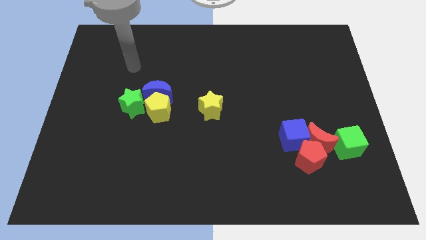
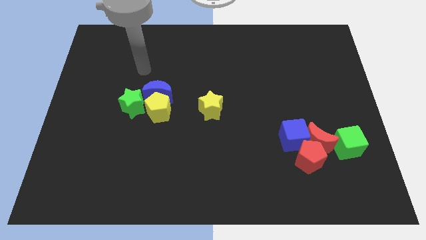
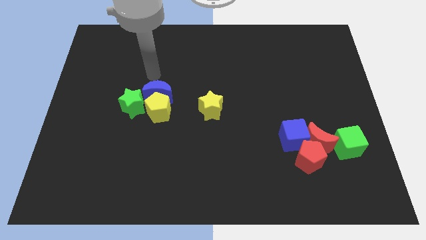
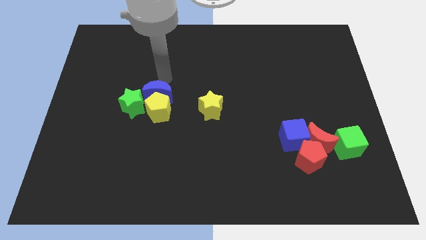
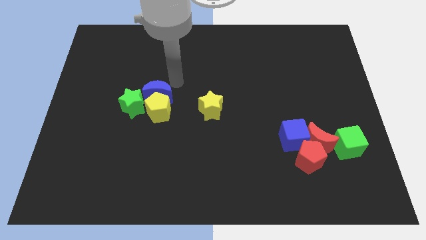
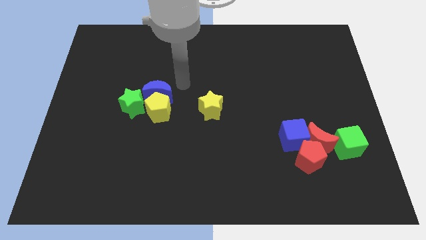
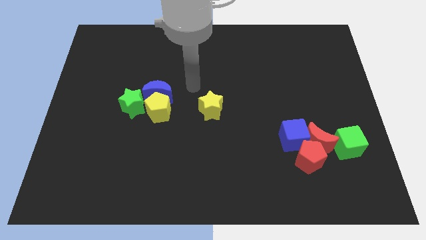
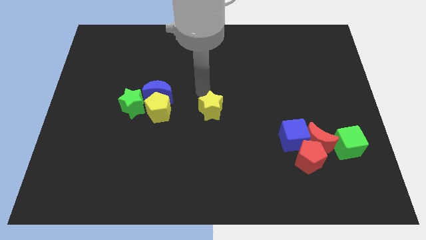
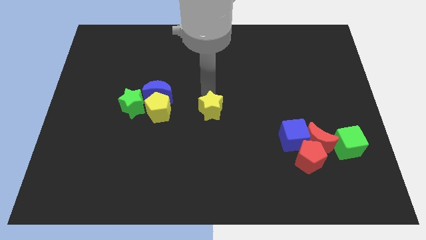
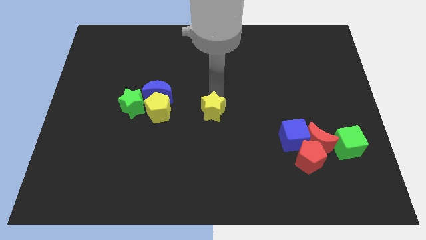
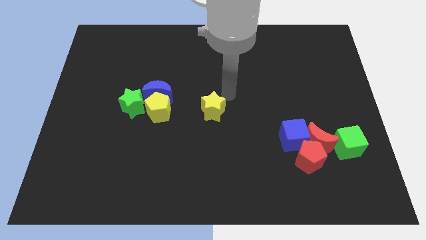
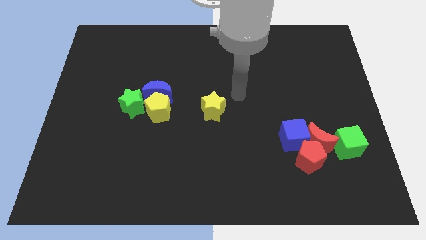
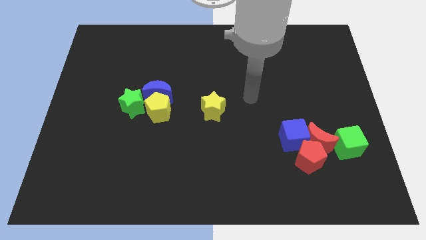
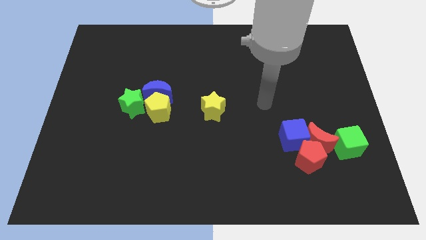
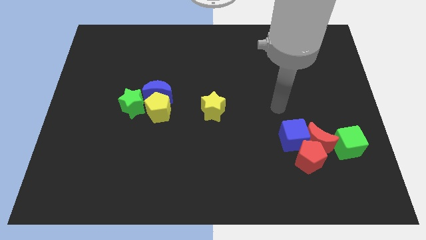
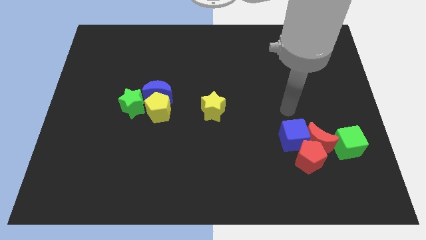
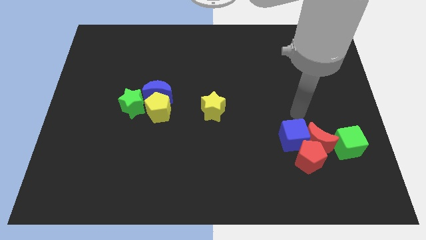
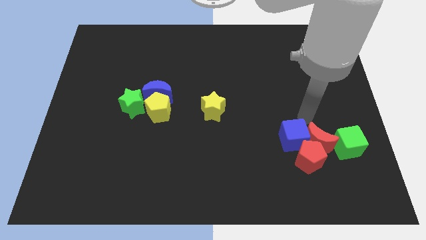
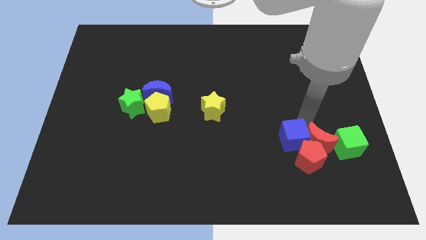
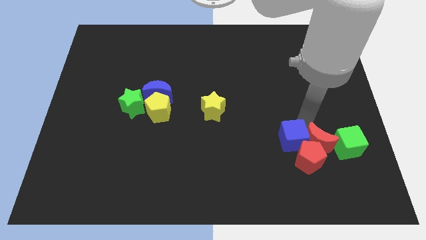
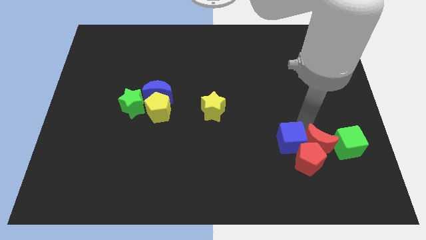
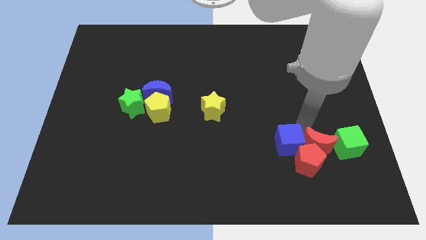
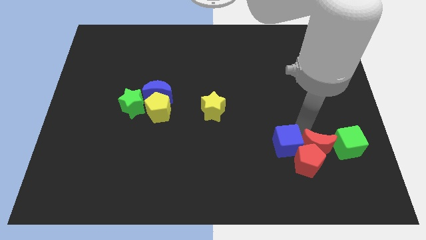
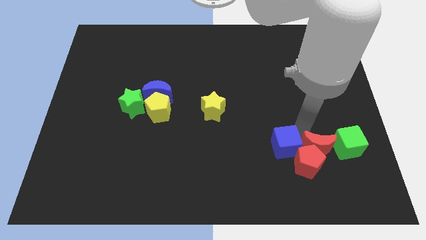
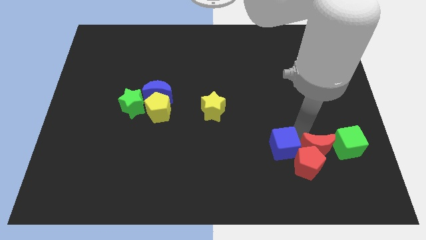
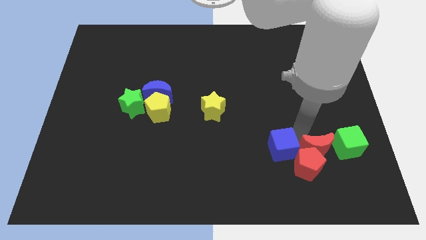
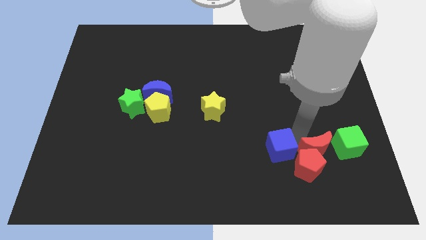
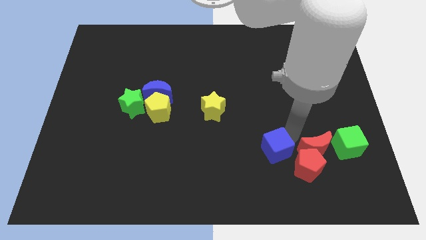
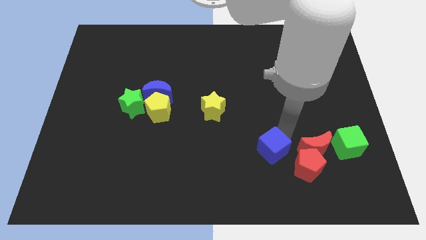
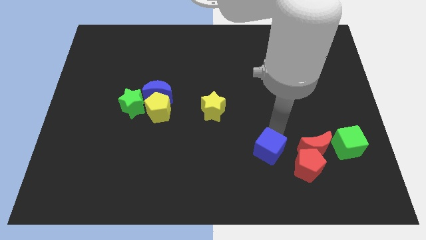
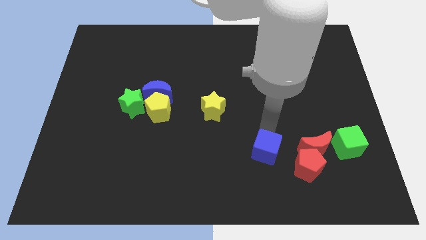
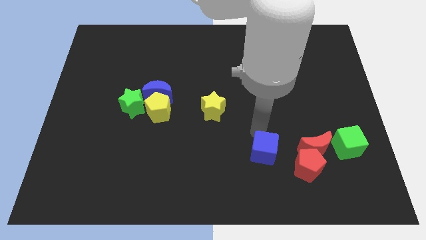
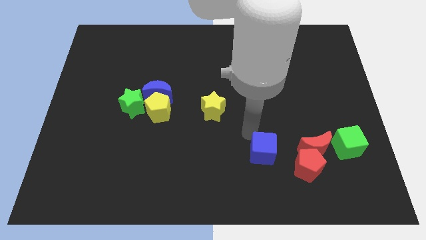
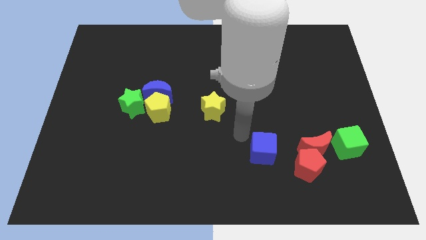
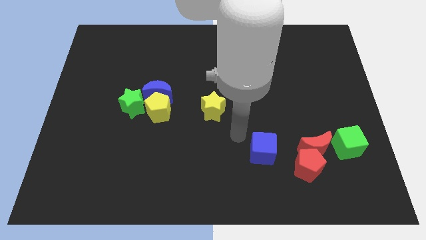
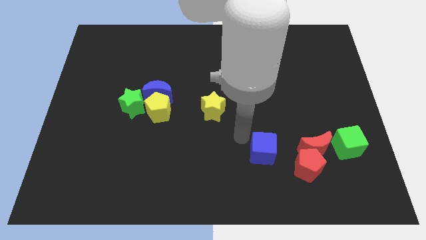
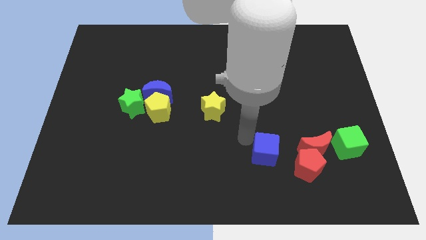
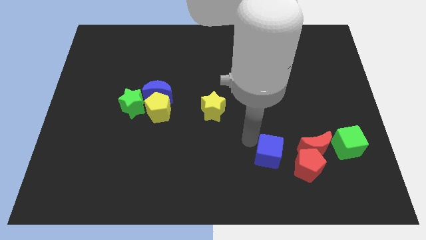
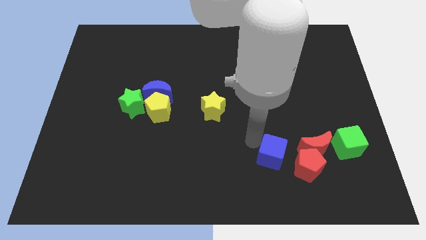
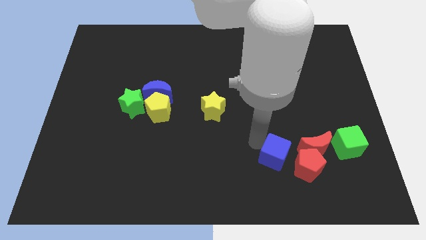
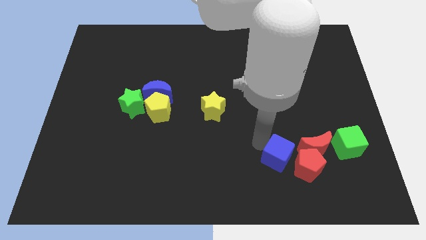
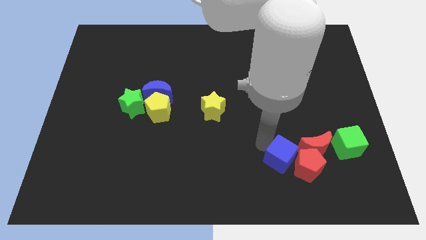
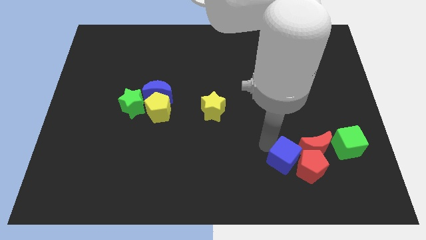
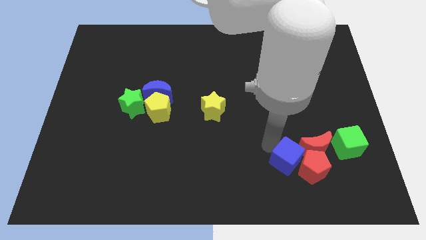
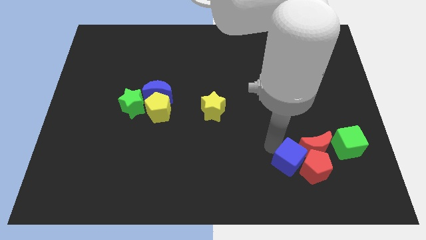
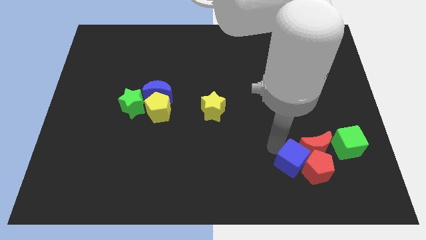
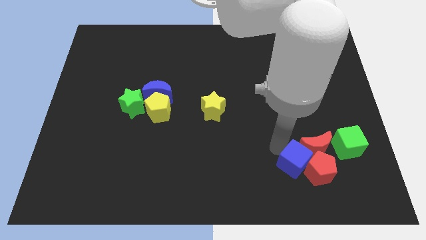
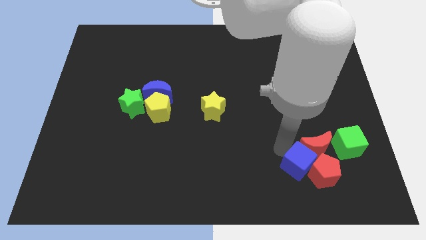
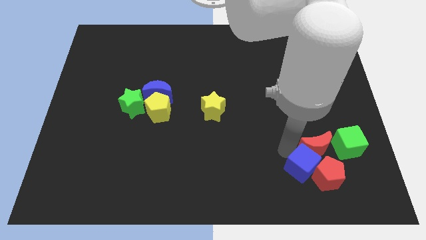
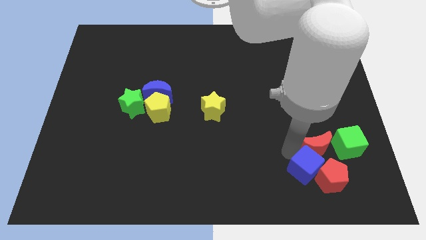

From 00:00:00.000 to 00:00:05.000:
put the blue cube to the bottom left side of the green cube

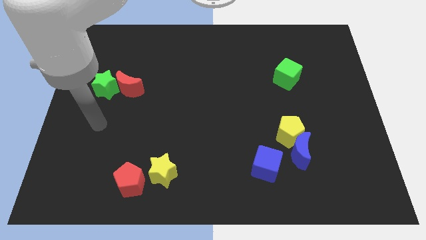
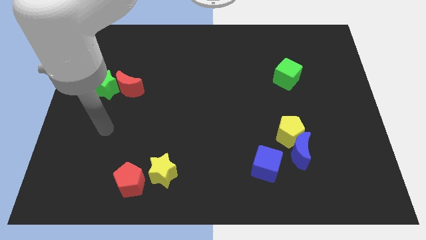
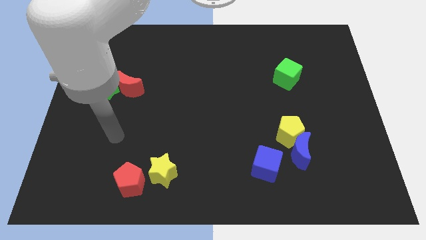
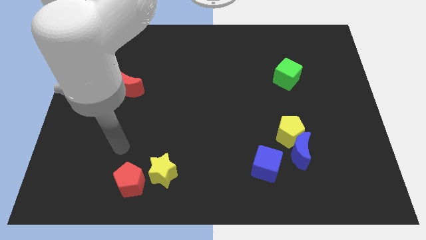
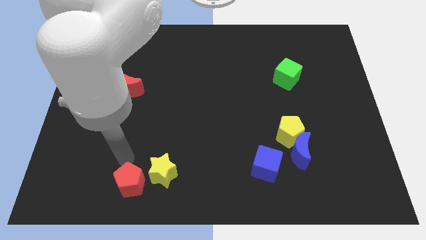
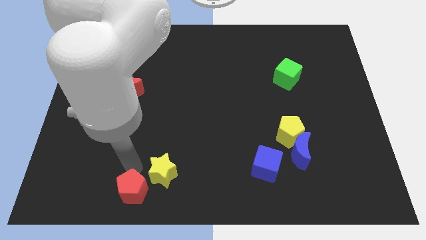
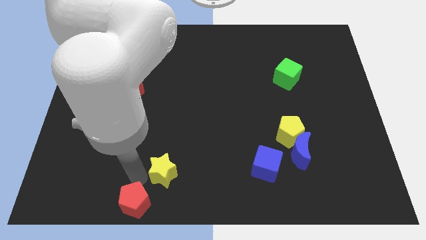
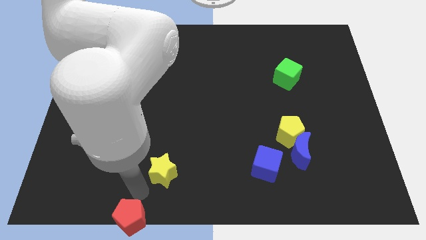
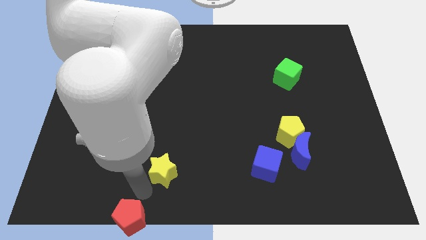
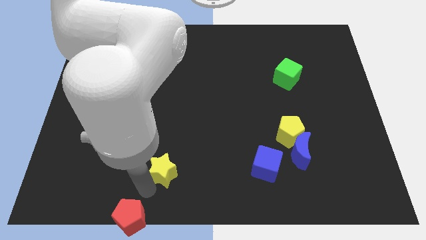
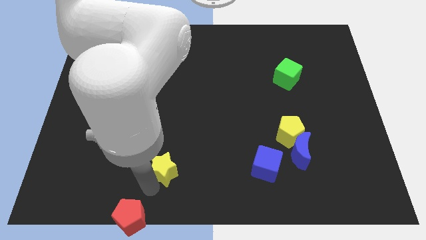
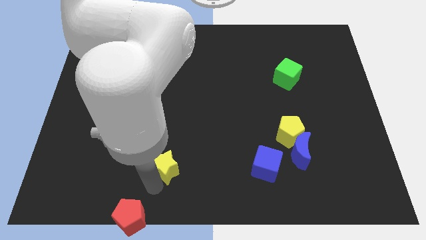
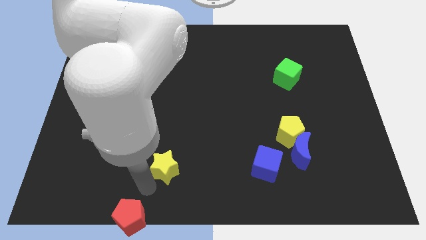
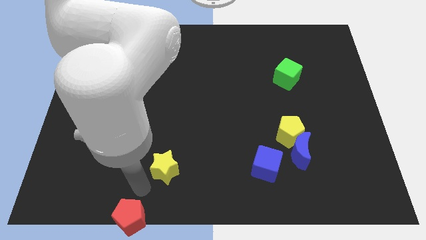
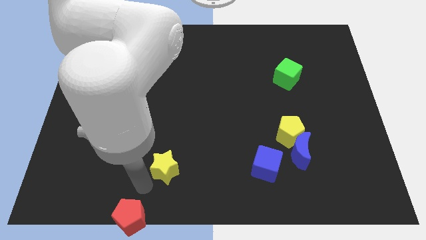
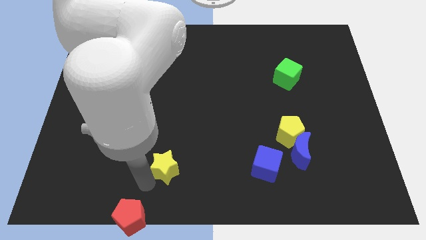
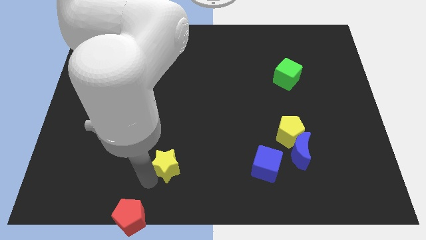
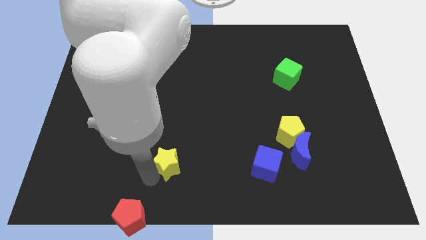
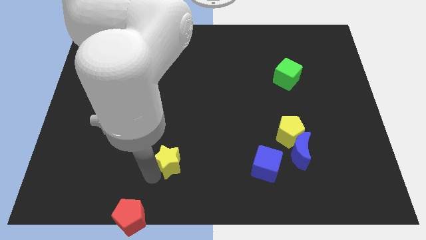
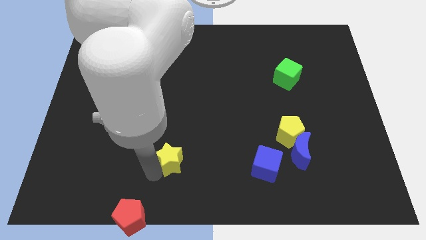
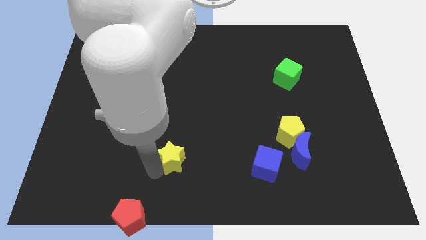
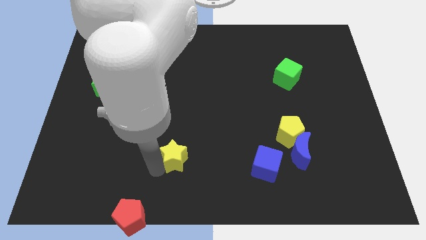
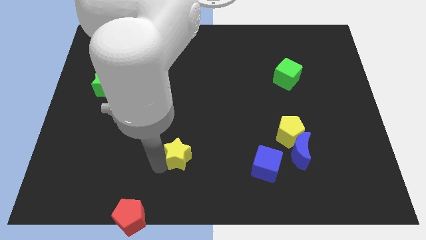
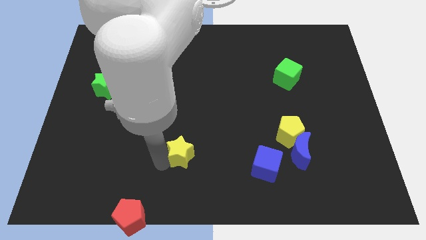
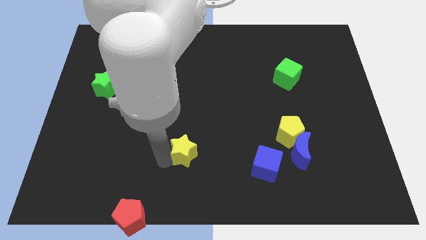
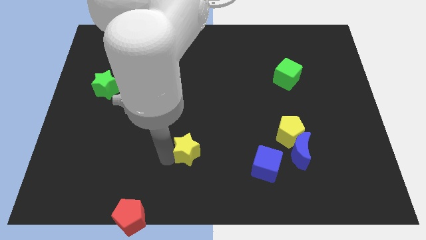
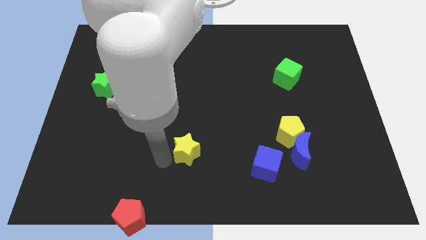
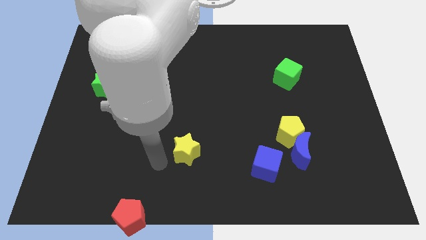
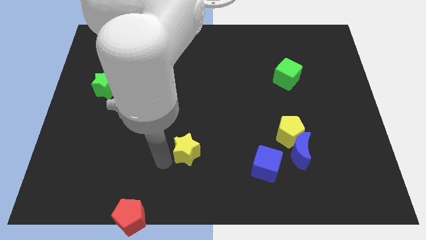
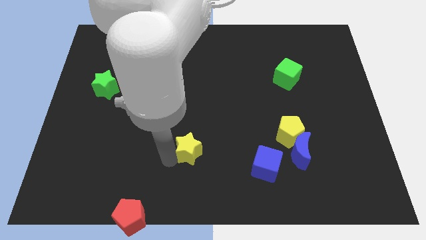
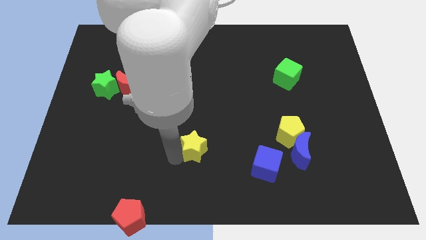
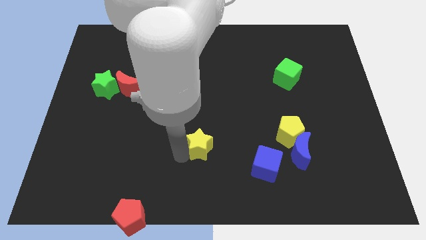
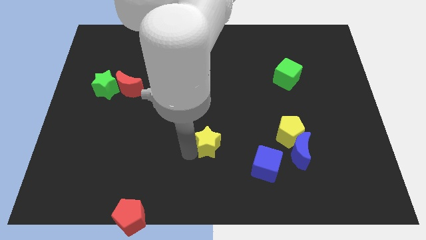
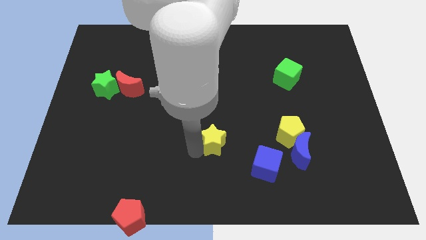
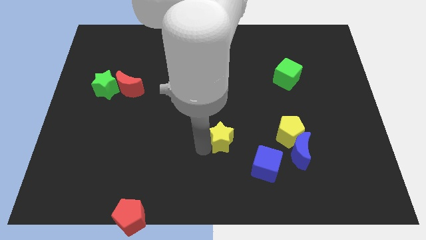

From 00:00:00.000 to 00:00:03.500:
move the yellow star to the left side of the yellow pentagon
